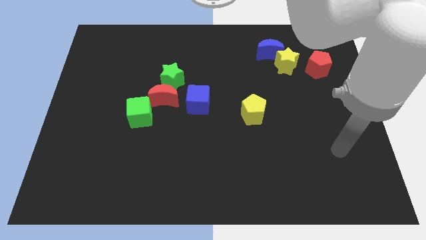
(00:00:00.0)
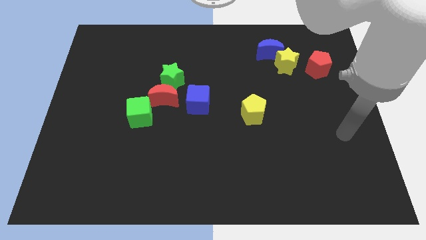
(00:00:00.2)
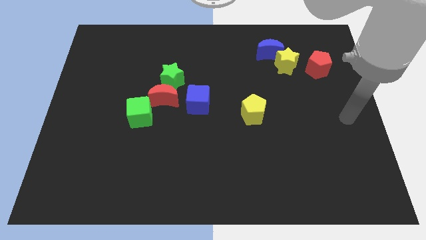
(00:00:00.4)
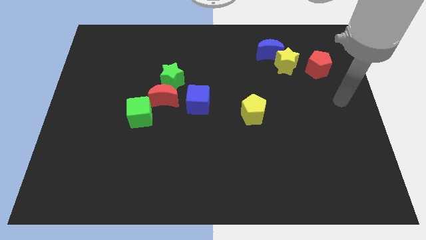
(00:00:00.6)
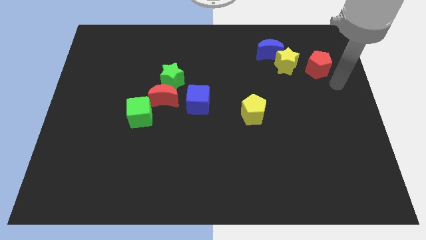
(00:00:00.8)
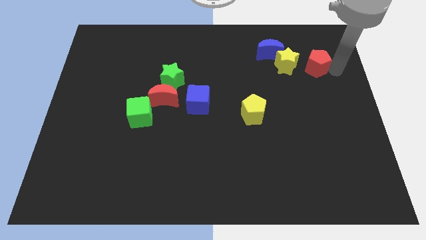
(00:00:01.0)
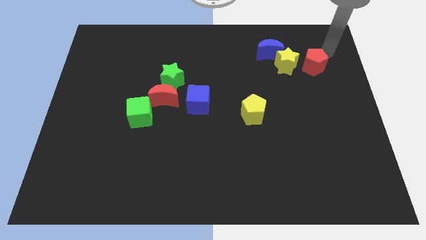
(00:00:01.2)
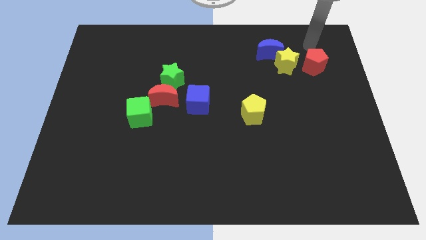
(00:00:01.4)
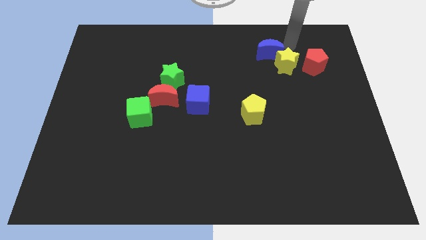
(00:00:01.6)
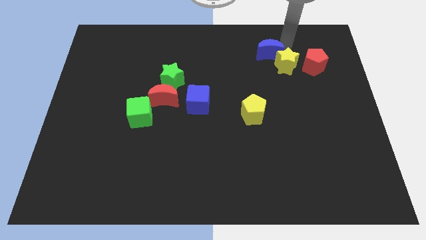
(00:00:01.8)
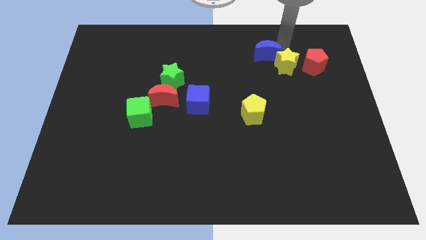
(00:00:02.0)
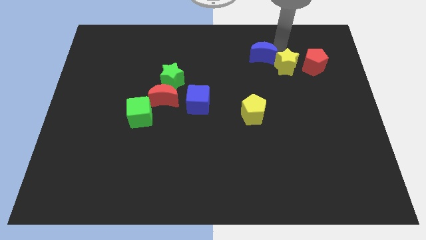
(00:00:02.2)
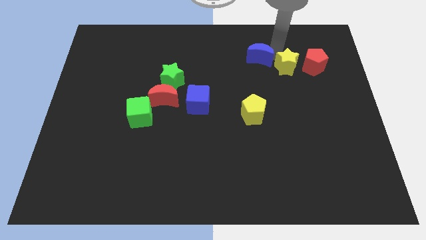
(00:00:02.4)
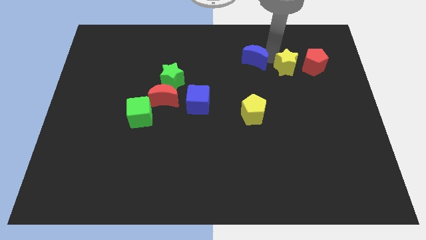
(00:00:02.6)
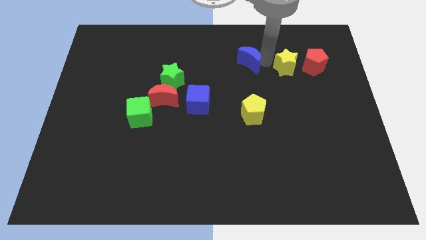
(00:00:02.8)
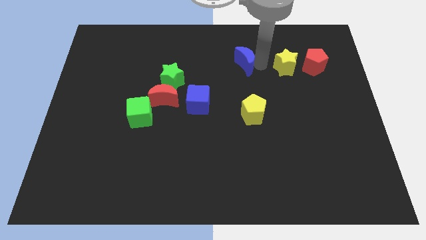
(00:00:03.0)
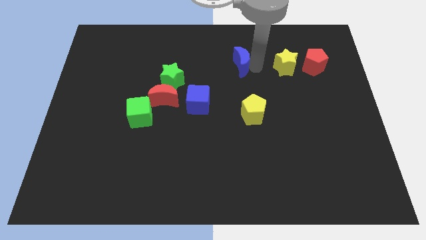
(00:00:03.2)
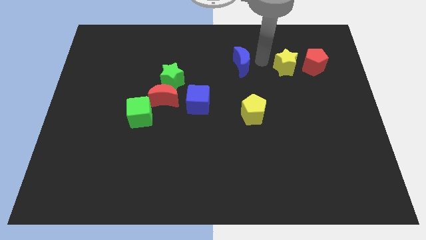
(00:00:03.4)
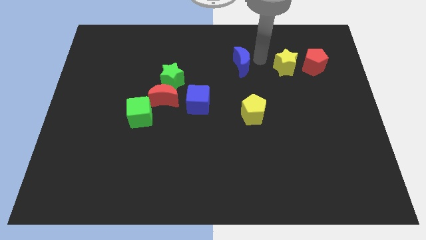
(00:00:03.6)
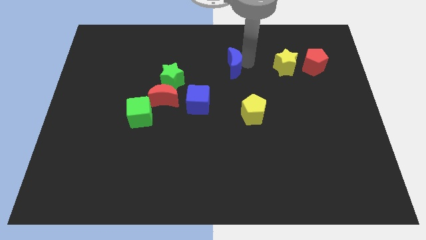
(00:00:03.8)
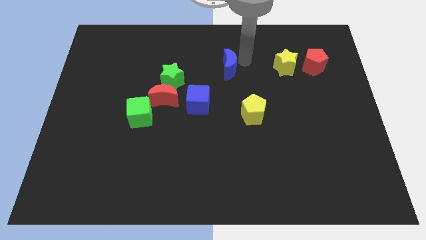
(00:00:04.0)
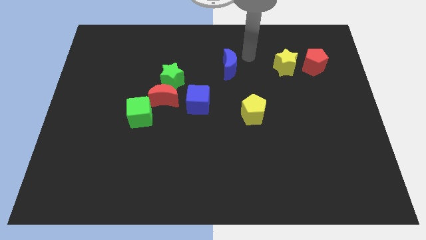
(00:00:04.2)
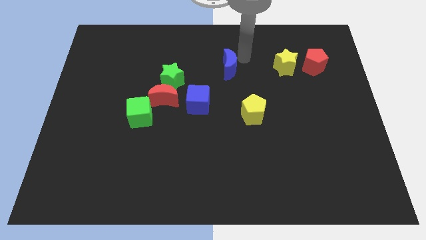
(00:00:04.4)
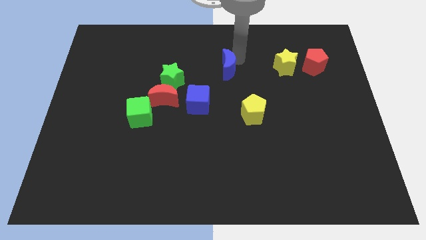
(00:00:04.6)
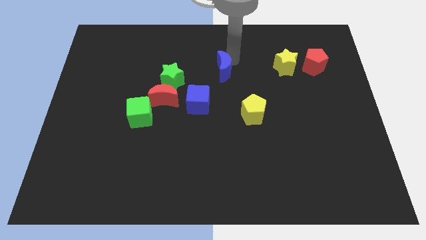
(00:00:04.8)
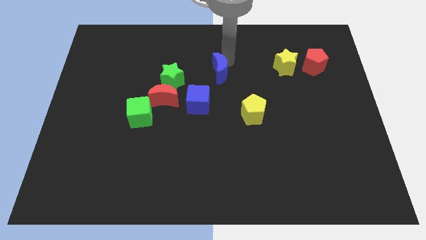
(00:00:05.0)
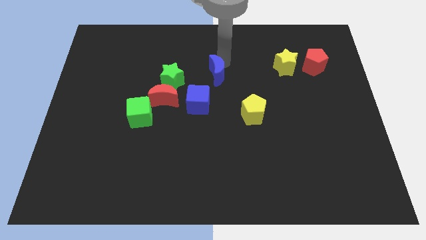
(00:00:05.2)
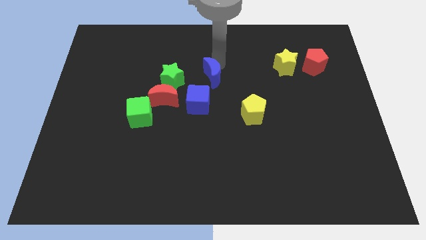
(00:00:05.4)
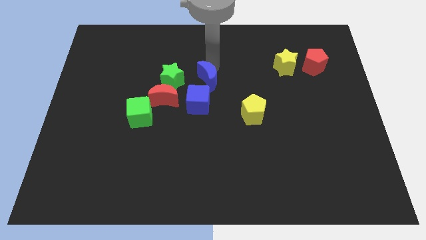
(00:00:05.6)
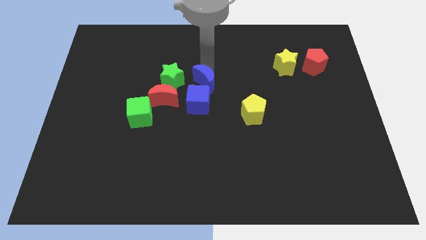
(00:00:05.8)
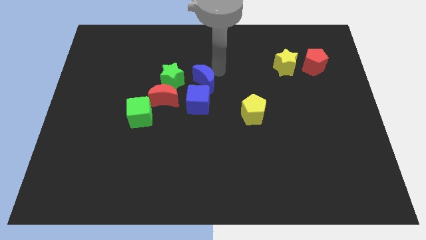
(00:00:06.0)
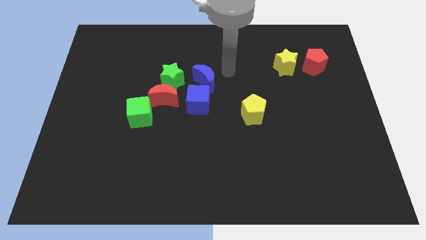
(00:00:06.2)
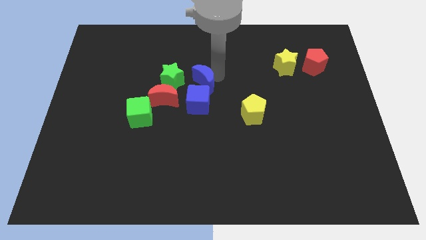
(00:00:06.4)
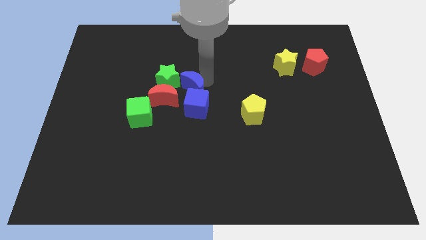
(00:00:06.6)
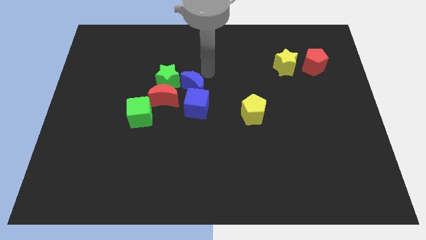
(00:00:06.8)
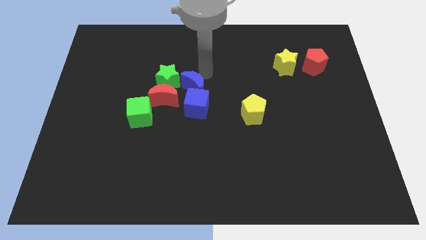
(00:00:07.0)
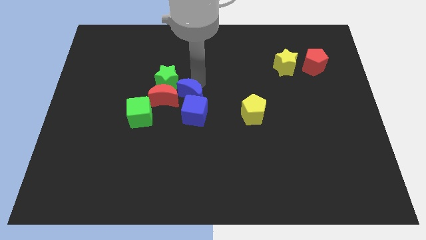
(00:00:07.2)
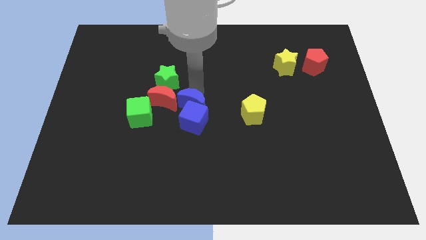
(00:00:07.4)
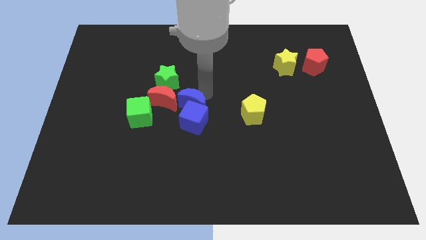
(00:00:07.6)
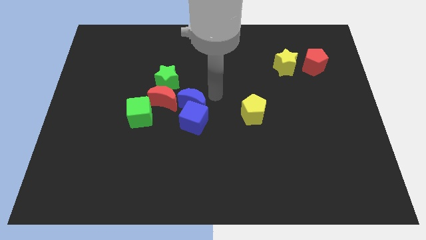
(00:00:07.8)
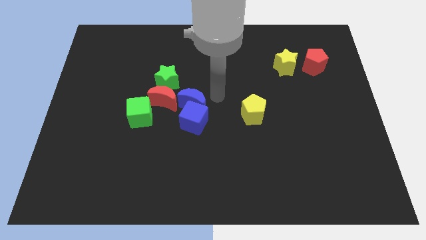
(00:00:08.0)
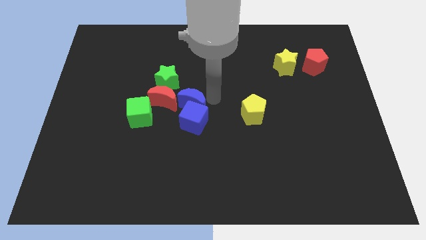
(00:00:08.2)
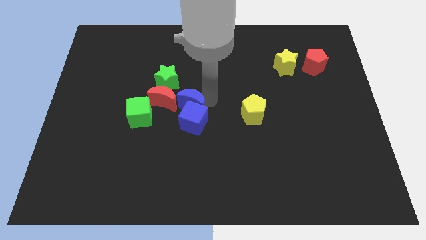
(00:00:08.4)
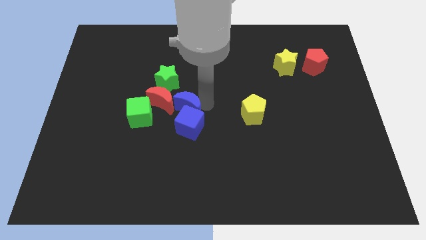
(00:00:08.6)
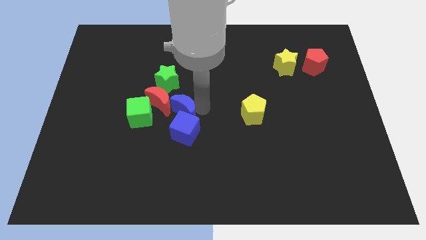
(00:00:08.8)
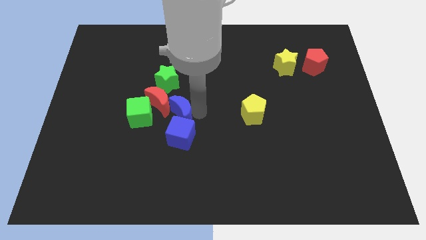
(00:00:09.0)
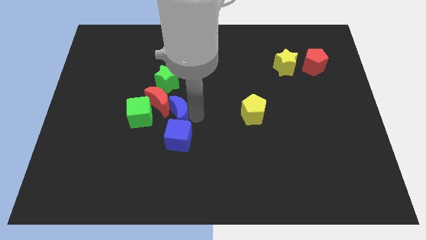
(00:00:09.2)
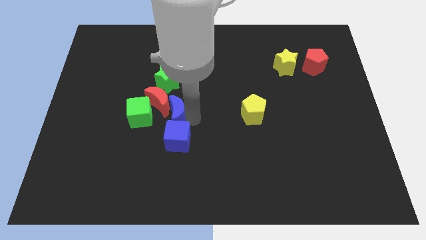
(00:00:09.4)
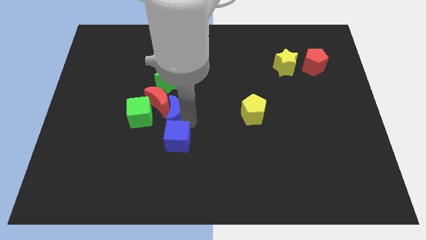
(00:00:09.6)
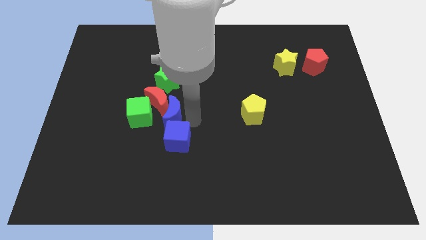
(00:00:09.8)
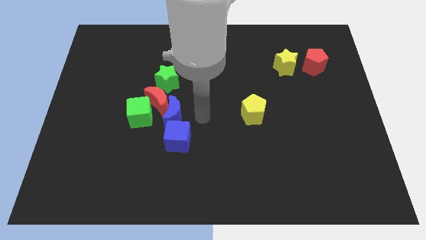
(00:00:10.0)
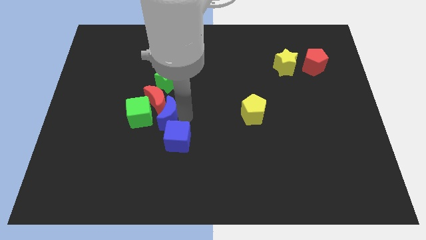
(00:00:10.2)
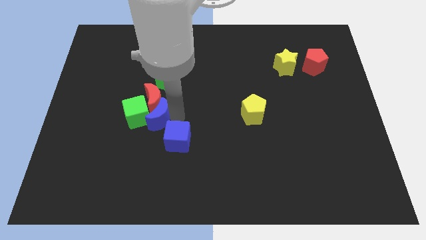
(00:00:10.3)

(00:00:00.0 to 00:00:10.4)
push the blue moon close to the green cube

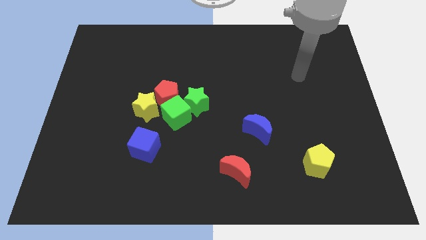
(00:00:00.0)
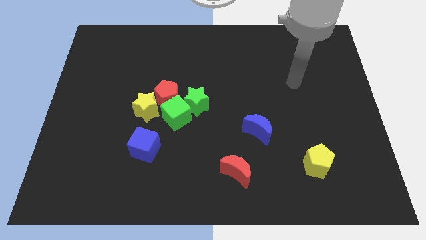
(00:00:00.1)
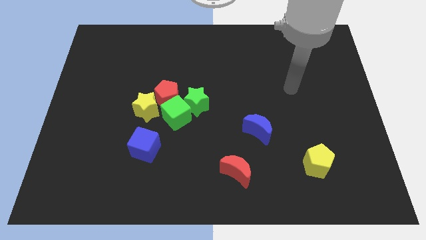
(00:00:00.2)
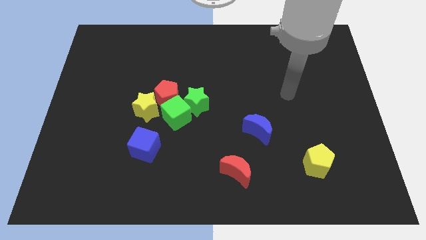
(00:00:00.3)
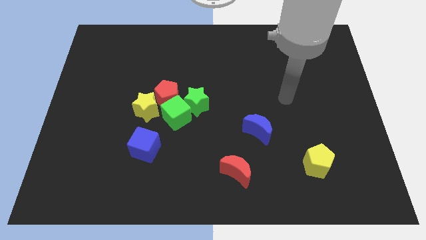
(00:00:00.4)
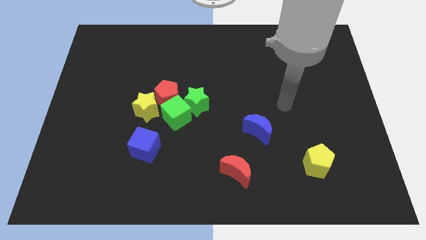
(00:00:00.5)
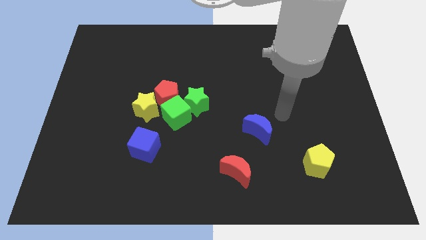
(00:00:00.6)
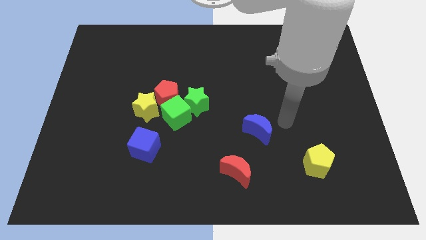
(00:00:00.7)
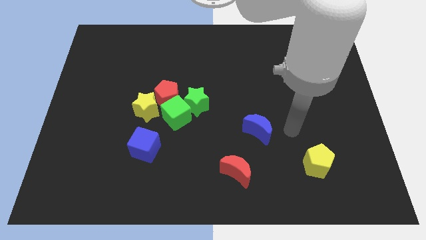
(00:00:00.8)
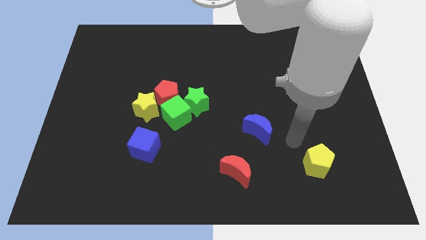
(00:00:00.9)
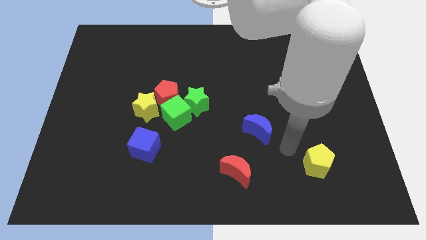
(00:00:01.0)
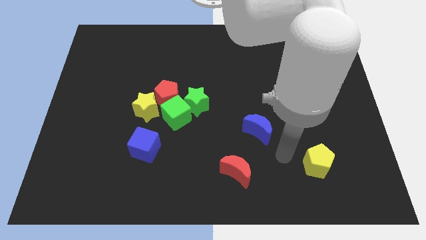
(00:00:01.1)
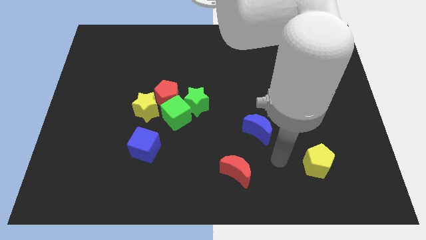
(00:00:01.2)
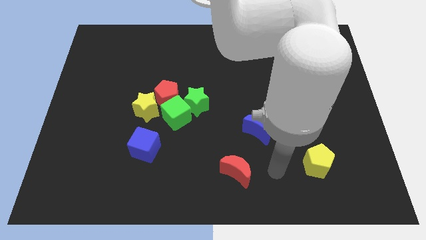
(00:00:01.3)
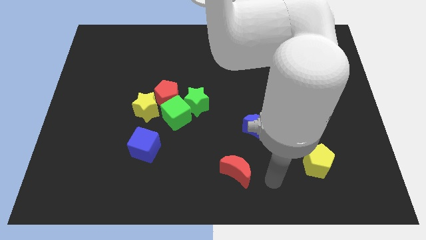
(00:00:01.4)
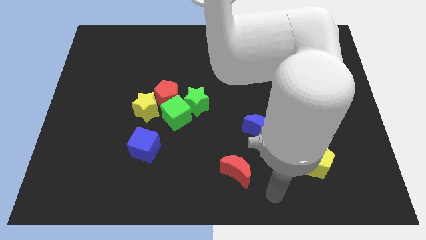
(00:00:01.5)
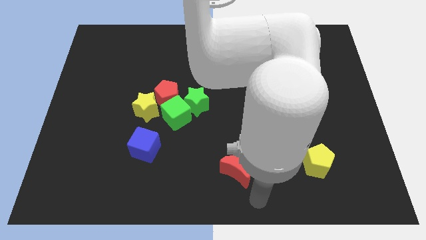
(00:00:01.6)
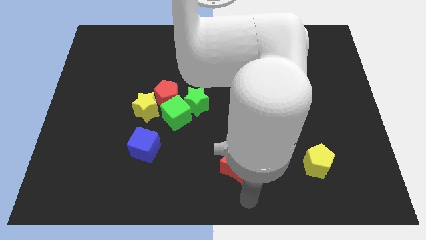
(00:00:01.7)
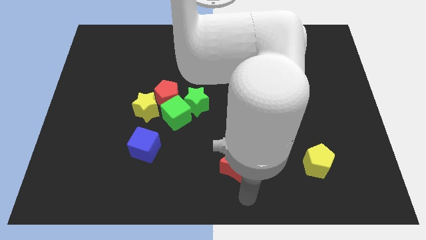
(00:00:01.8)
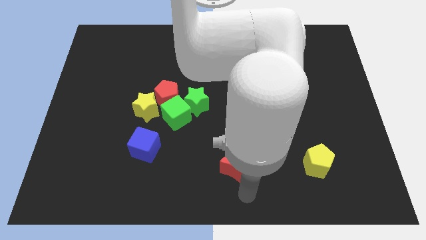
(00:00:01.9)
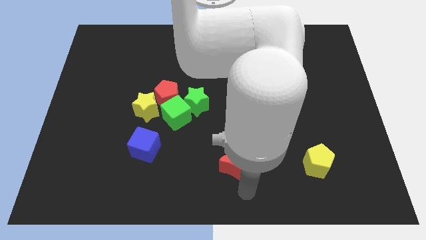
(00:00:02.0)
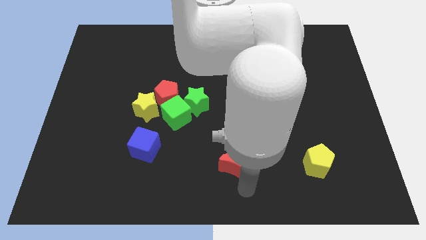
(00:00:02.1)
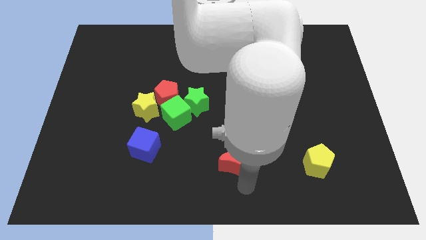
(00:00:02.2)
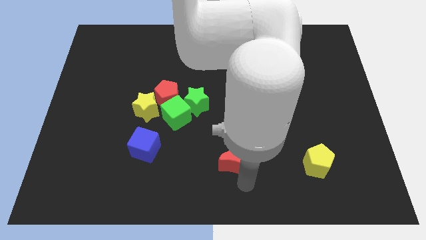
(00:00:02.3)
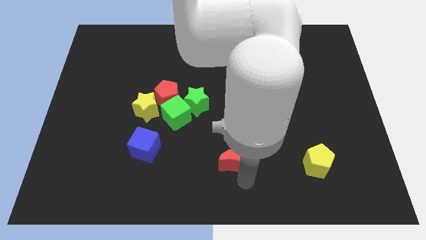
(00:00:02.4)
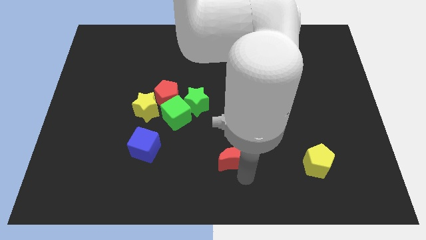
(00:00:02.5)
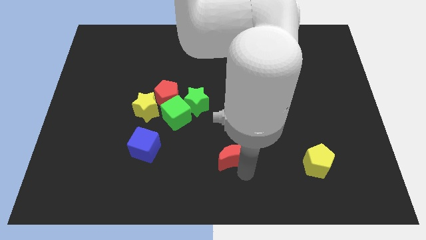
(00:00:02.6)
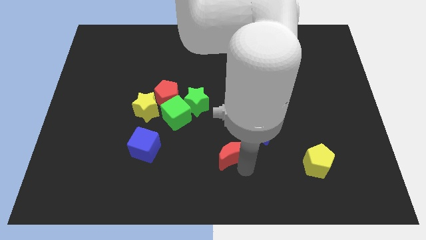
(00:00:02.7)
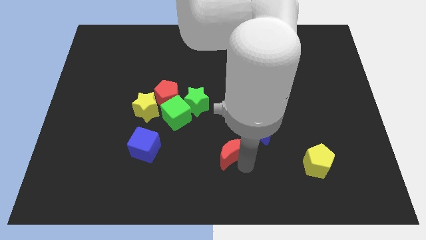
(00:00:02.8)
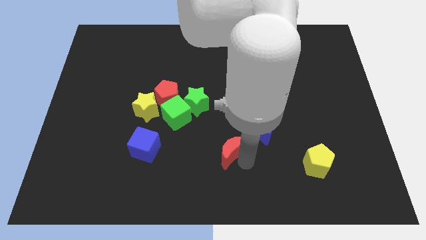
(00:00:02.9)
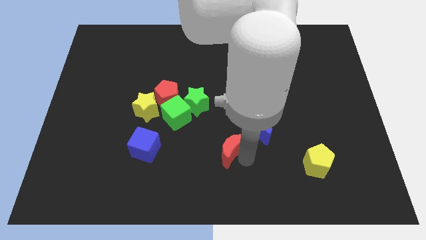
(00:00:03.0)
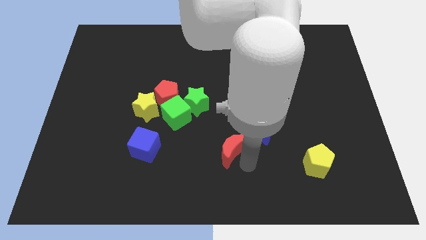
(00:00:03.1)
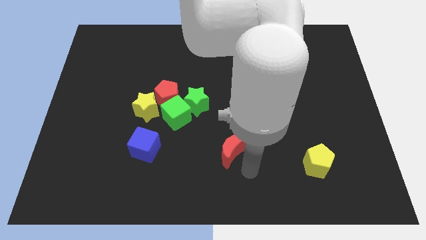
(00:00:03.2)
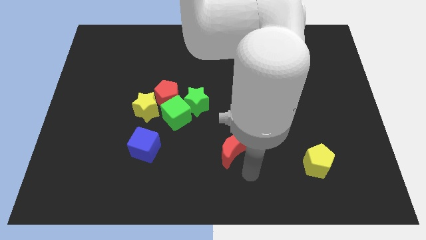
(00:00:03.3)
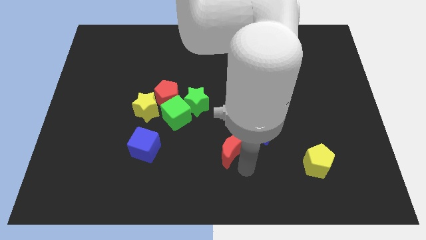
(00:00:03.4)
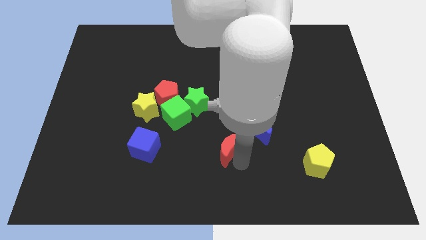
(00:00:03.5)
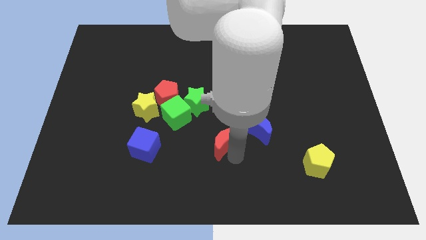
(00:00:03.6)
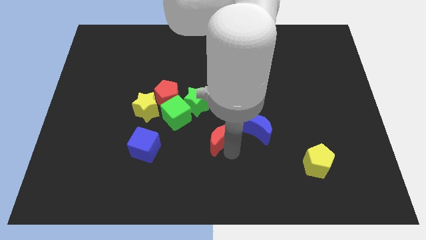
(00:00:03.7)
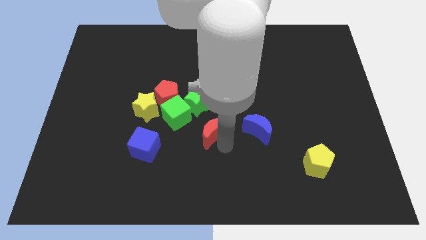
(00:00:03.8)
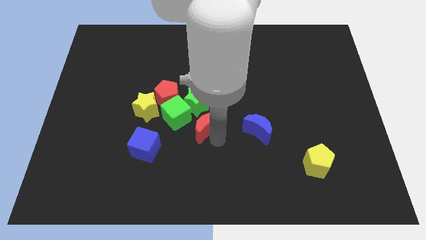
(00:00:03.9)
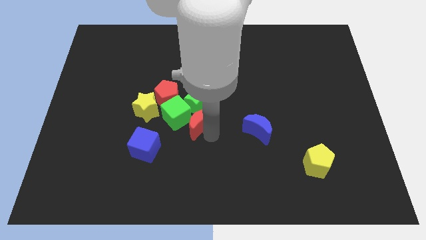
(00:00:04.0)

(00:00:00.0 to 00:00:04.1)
move the red moon next to the green star
